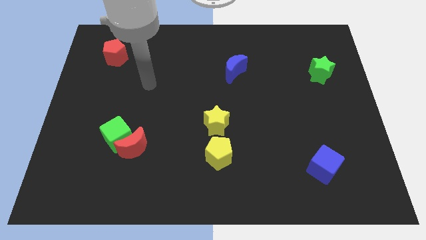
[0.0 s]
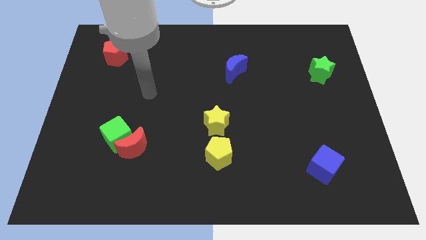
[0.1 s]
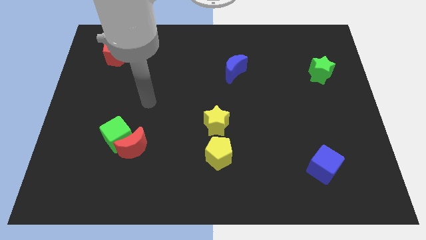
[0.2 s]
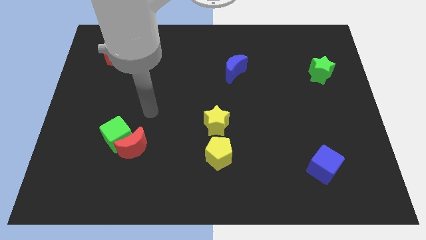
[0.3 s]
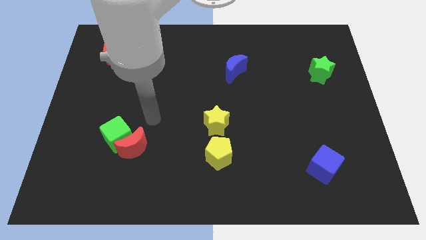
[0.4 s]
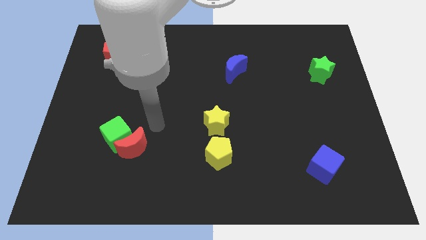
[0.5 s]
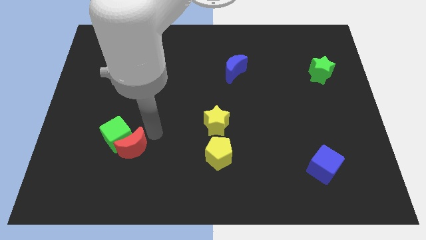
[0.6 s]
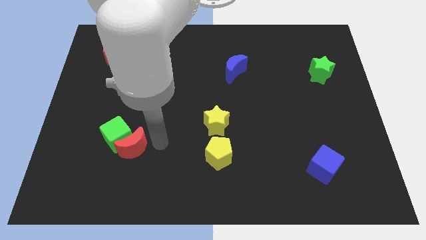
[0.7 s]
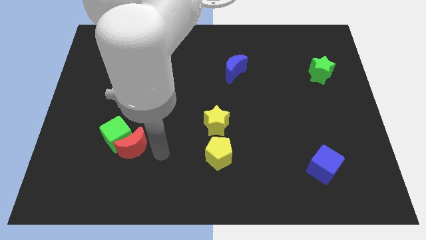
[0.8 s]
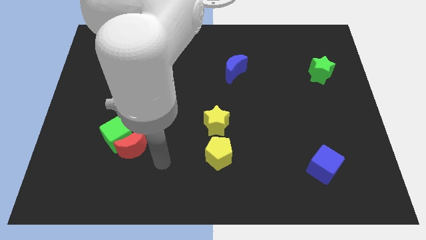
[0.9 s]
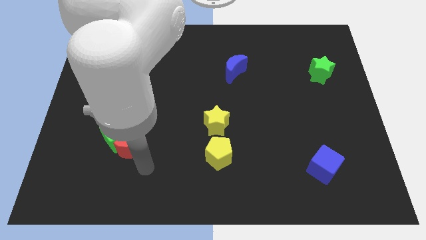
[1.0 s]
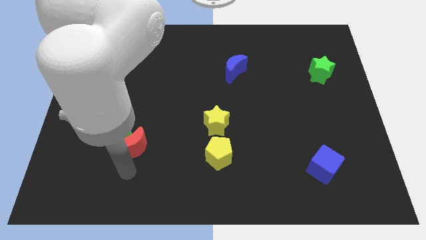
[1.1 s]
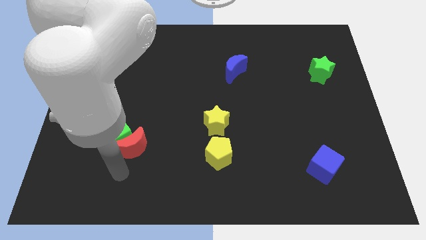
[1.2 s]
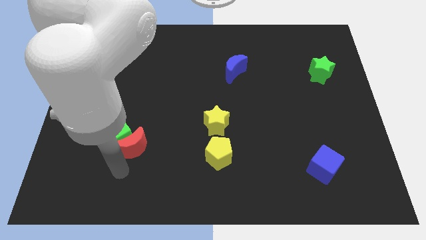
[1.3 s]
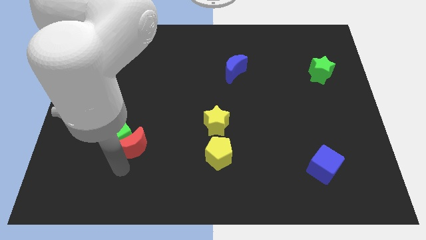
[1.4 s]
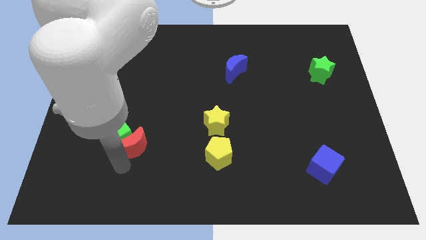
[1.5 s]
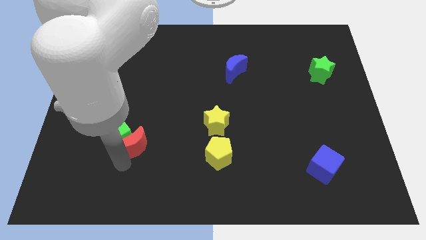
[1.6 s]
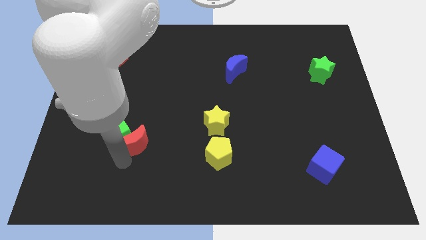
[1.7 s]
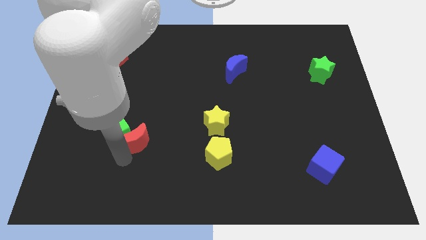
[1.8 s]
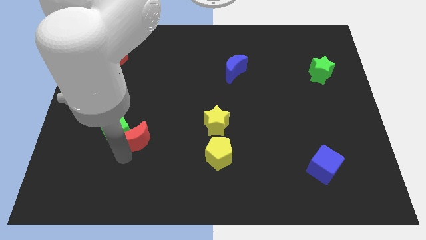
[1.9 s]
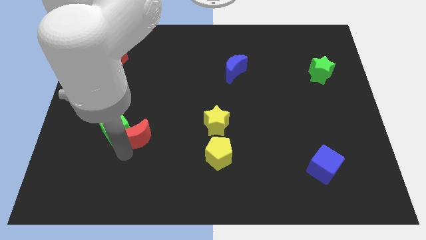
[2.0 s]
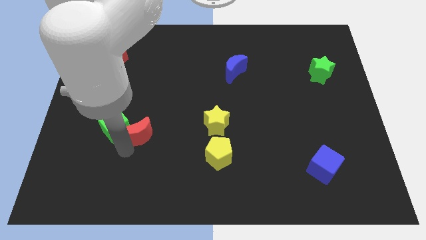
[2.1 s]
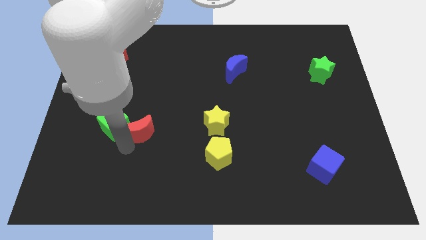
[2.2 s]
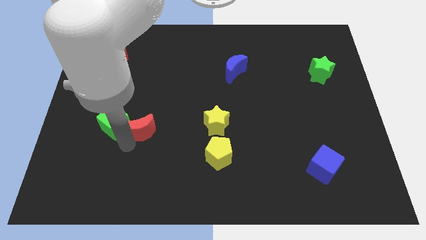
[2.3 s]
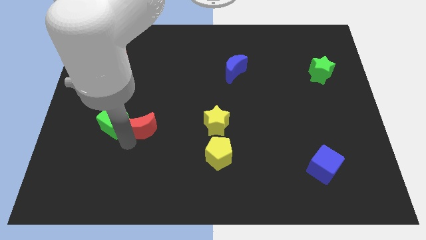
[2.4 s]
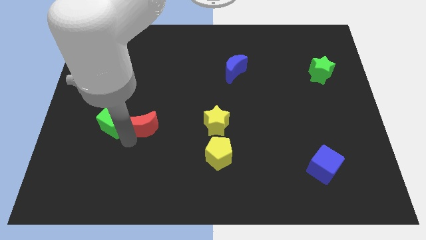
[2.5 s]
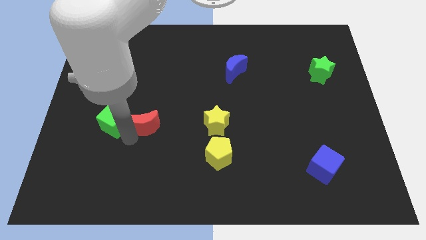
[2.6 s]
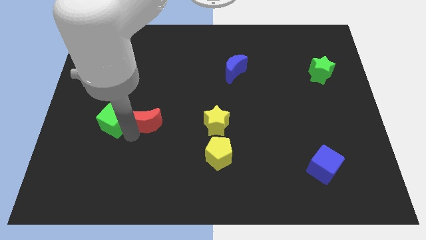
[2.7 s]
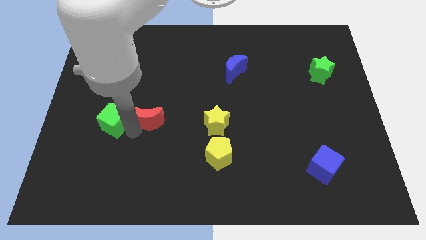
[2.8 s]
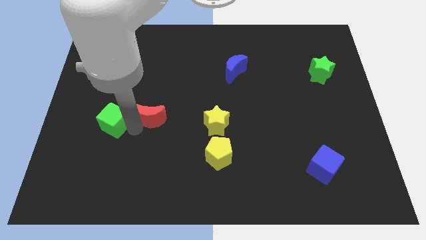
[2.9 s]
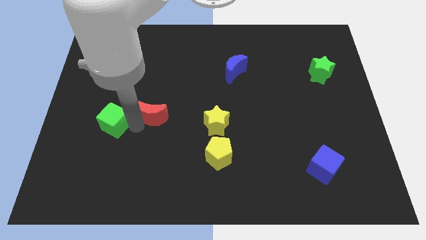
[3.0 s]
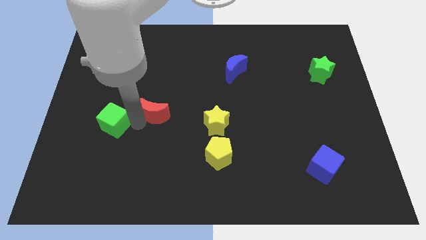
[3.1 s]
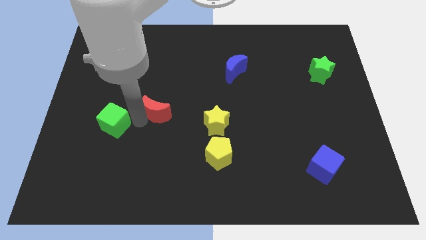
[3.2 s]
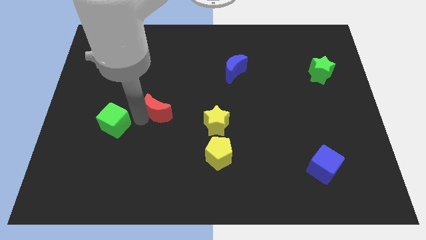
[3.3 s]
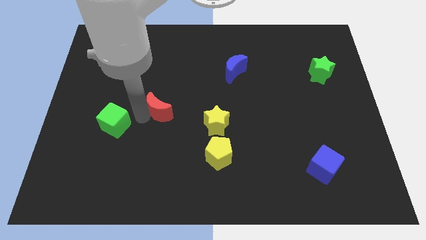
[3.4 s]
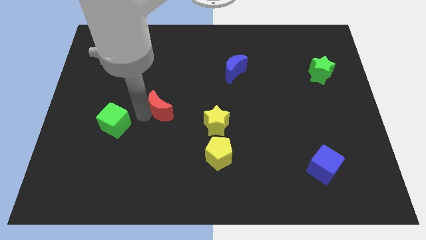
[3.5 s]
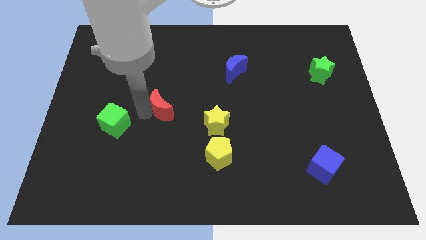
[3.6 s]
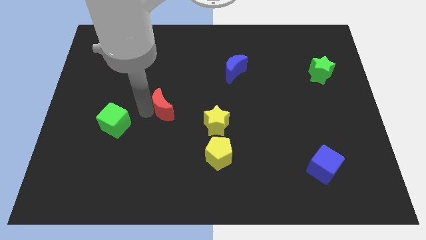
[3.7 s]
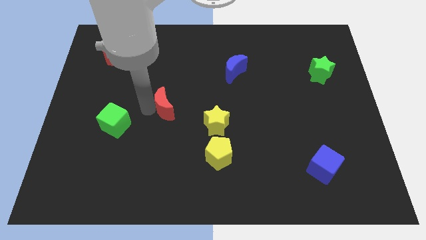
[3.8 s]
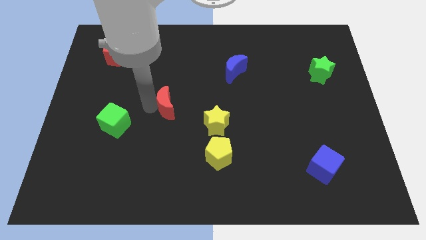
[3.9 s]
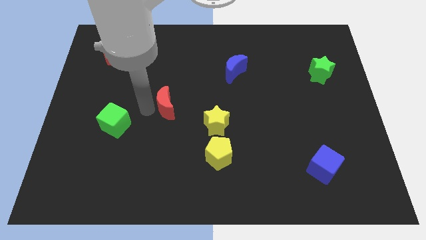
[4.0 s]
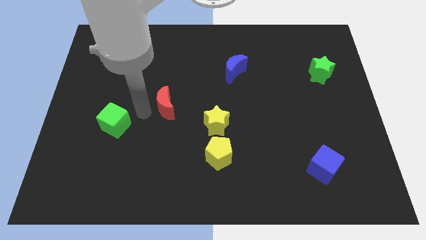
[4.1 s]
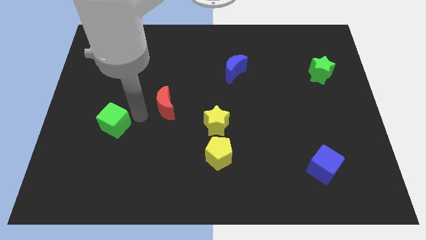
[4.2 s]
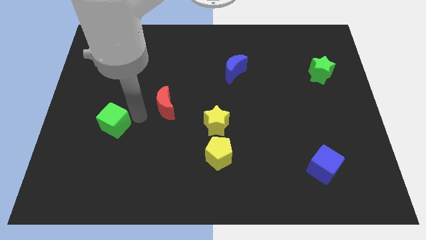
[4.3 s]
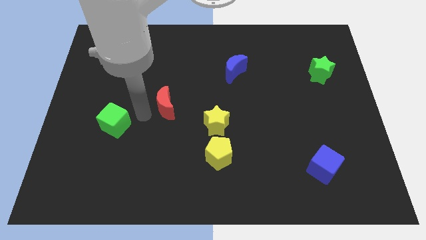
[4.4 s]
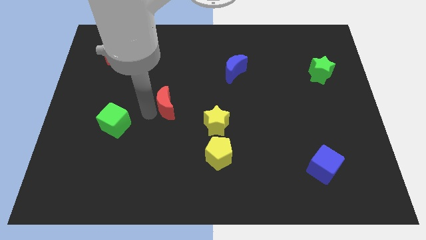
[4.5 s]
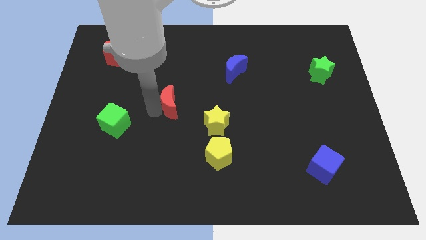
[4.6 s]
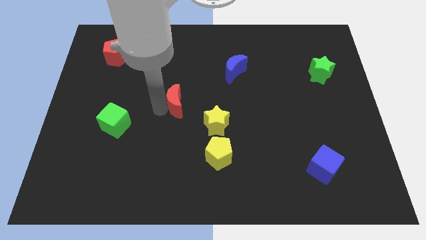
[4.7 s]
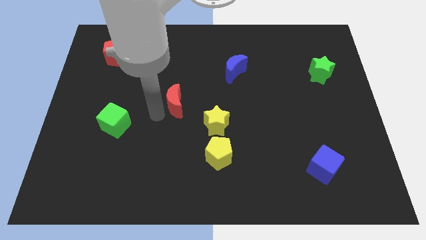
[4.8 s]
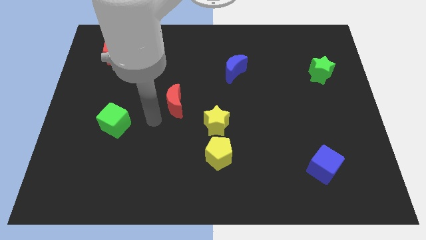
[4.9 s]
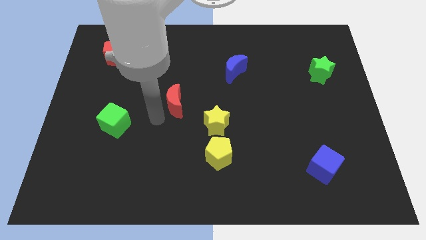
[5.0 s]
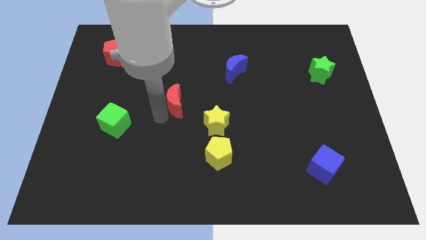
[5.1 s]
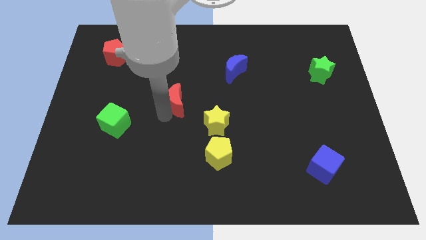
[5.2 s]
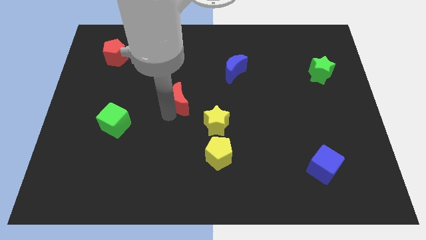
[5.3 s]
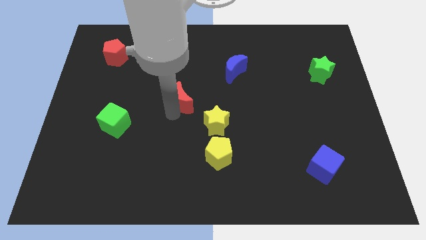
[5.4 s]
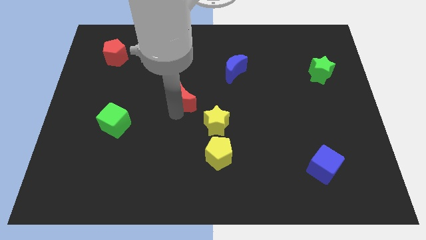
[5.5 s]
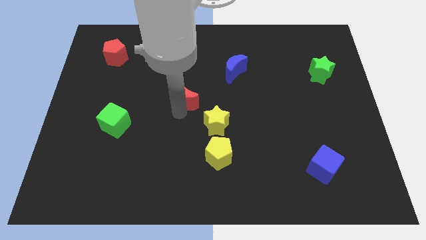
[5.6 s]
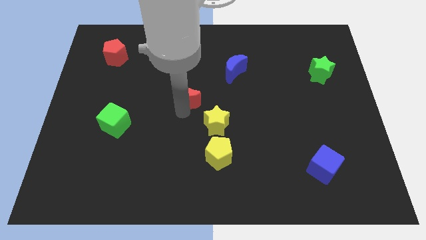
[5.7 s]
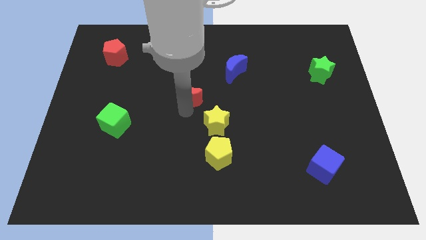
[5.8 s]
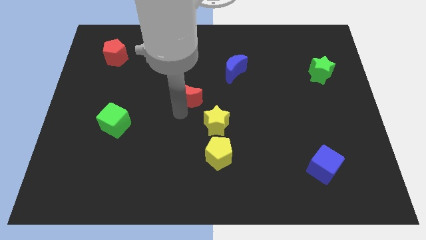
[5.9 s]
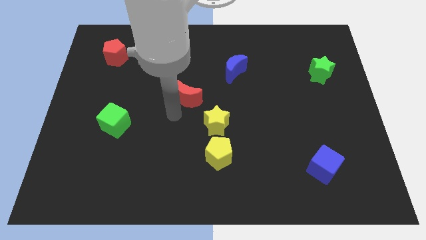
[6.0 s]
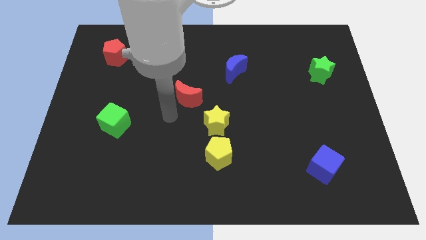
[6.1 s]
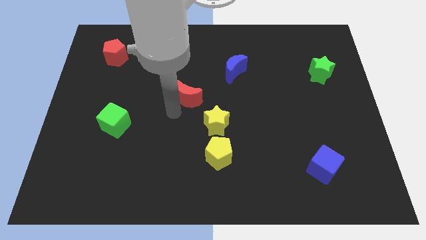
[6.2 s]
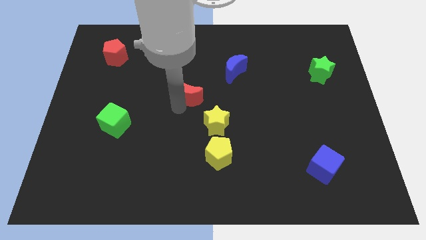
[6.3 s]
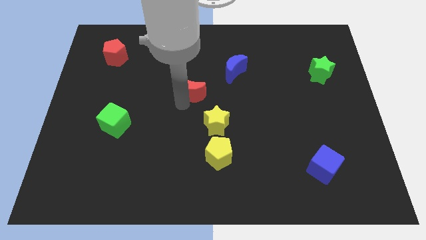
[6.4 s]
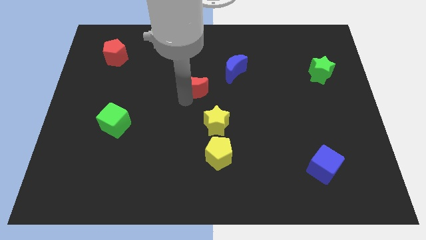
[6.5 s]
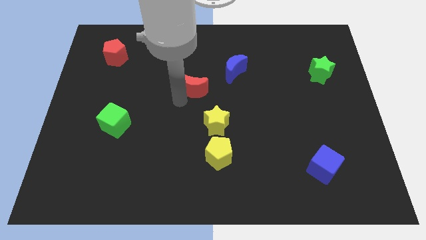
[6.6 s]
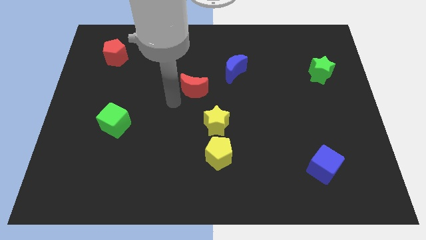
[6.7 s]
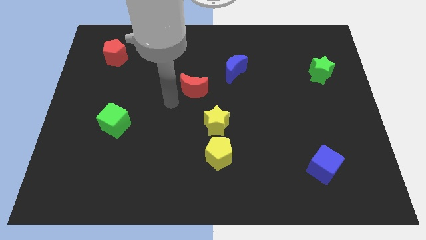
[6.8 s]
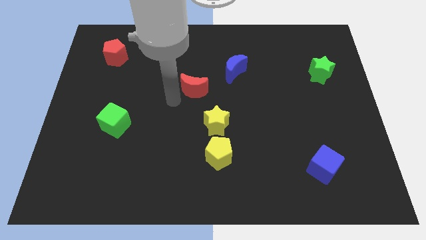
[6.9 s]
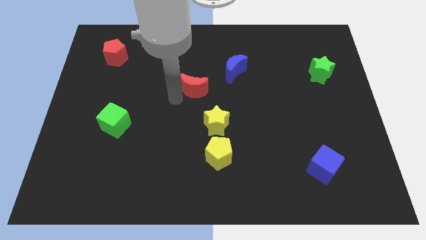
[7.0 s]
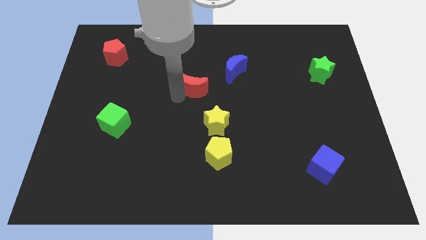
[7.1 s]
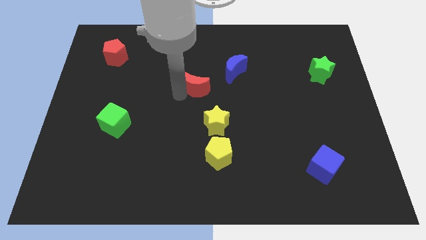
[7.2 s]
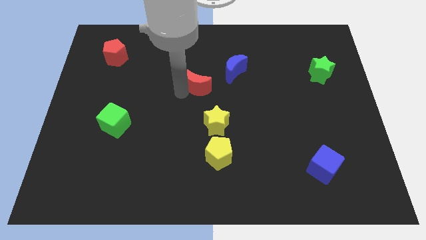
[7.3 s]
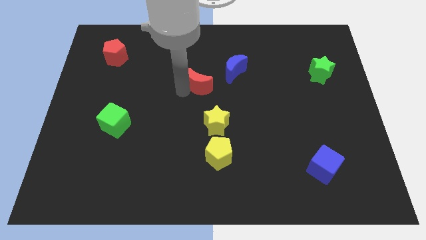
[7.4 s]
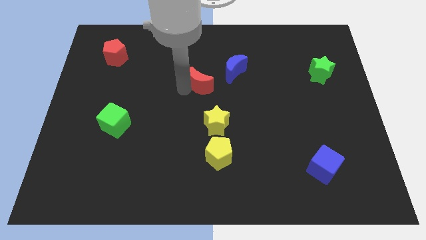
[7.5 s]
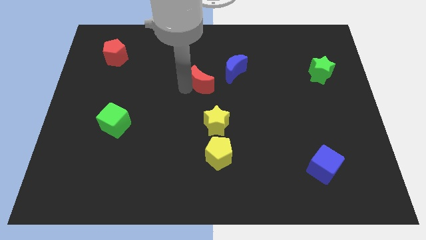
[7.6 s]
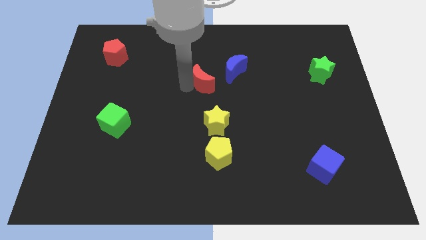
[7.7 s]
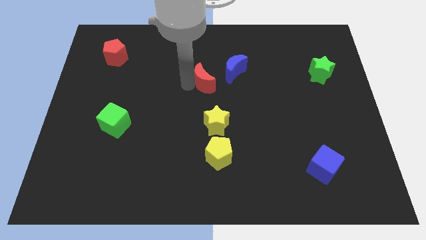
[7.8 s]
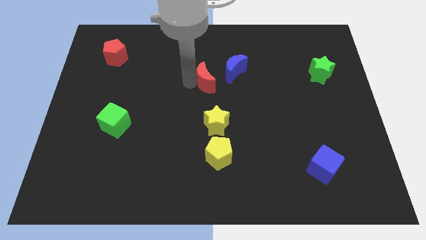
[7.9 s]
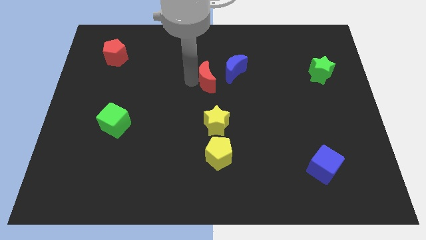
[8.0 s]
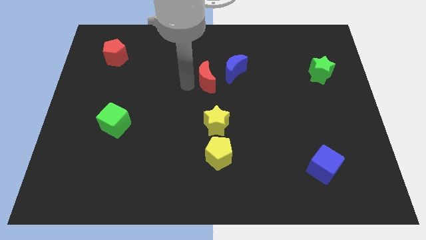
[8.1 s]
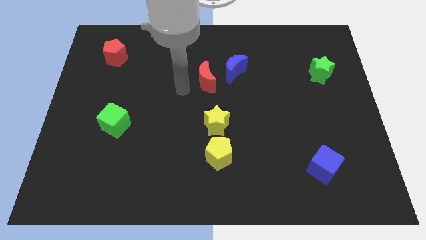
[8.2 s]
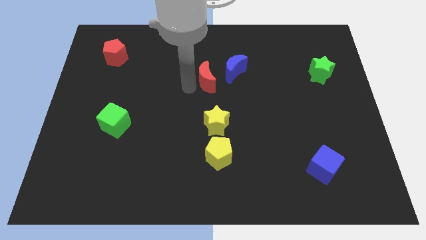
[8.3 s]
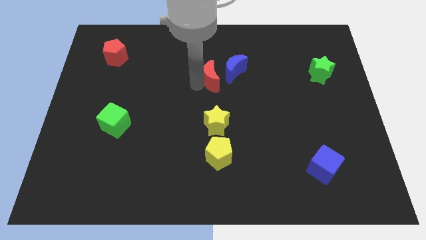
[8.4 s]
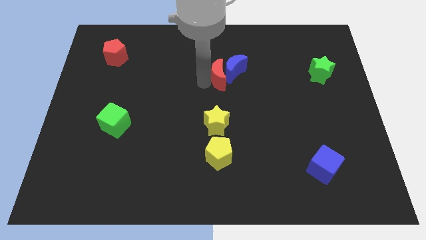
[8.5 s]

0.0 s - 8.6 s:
move the red moon towards the blue moon
